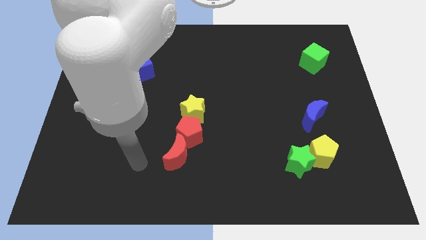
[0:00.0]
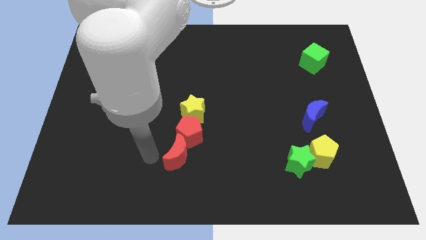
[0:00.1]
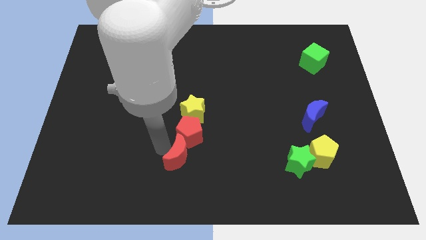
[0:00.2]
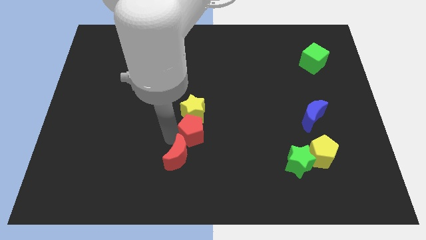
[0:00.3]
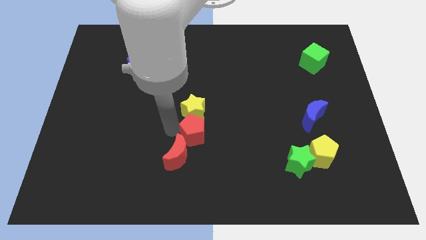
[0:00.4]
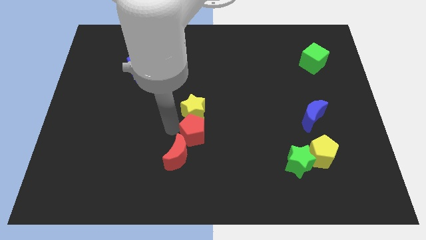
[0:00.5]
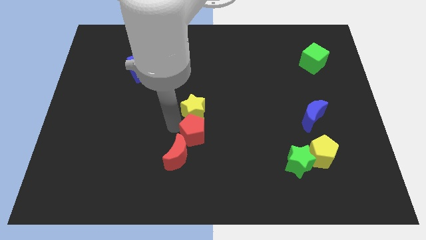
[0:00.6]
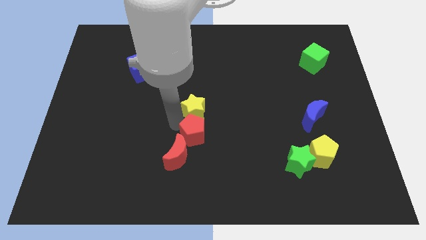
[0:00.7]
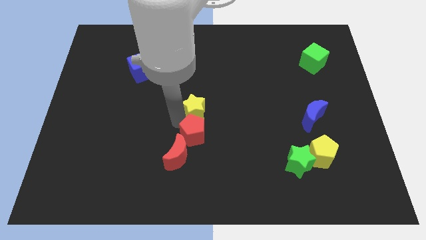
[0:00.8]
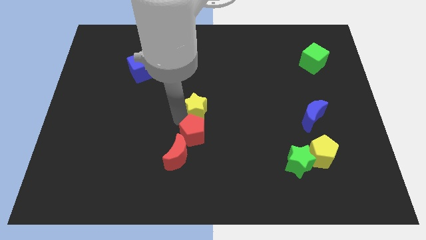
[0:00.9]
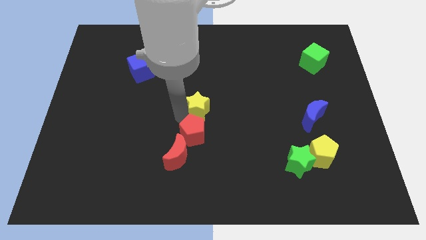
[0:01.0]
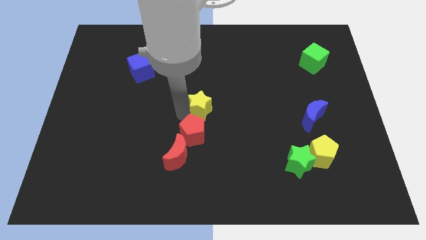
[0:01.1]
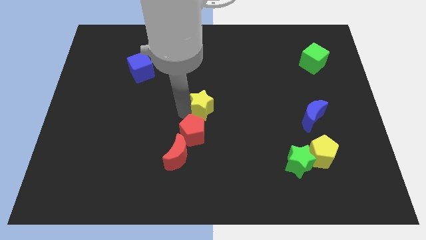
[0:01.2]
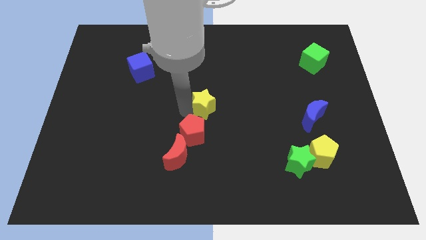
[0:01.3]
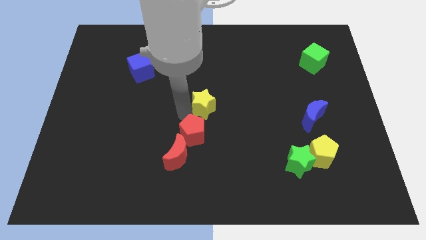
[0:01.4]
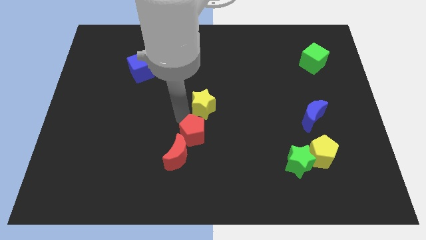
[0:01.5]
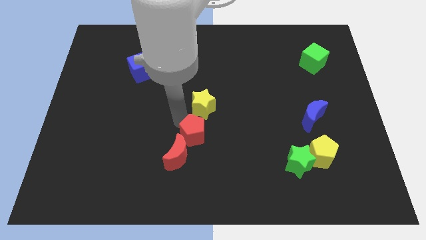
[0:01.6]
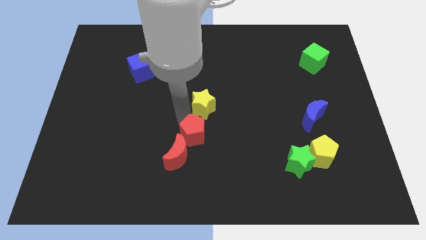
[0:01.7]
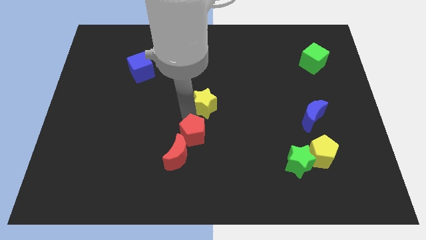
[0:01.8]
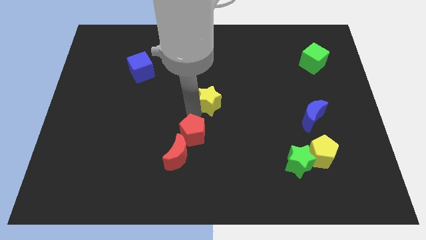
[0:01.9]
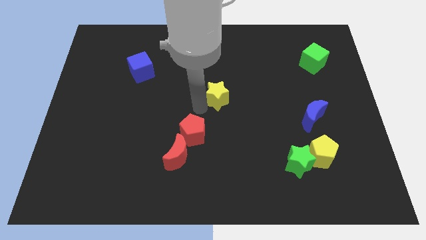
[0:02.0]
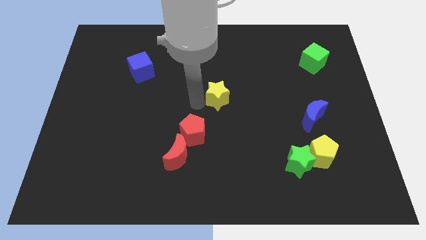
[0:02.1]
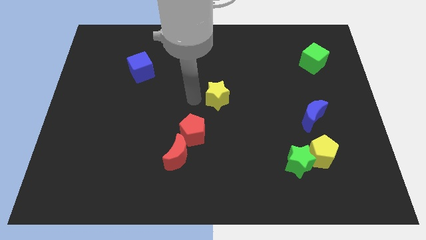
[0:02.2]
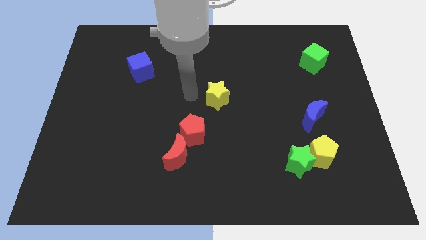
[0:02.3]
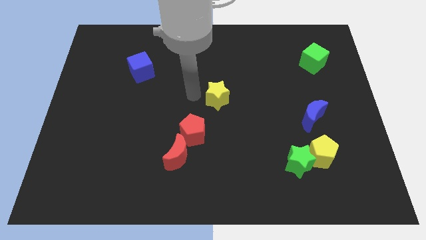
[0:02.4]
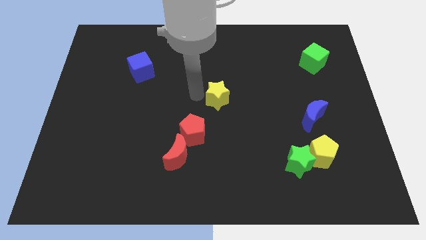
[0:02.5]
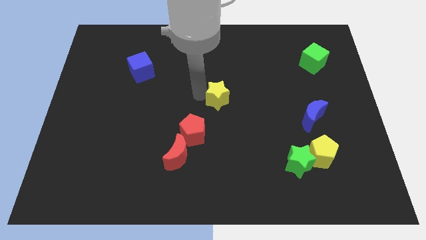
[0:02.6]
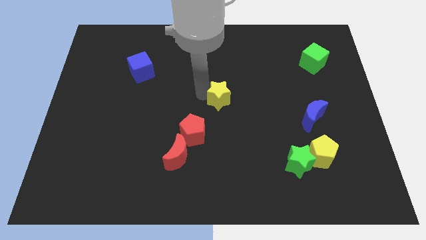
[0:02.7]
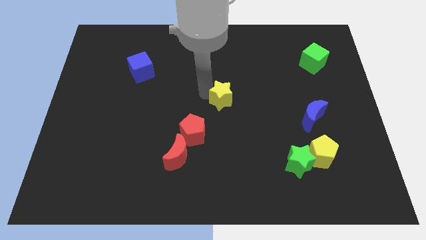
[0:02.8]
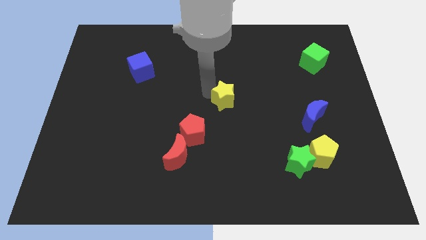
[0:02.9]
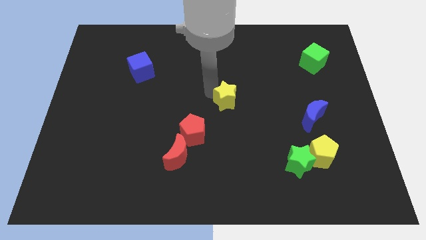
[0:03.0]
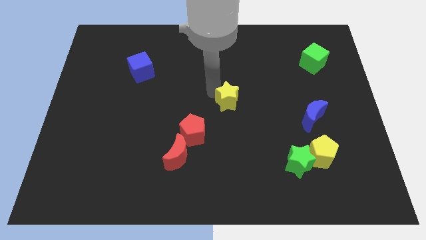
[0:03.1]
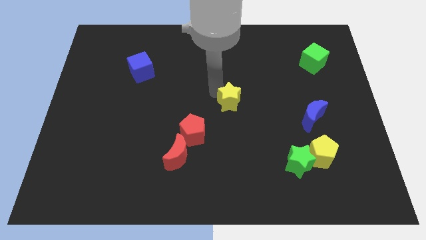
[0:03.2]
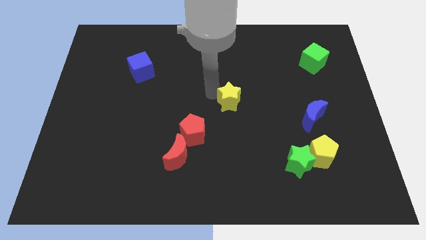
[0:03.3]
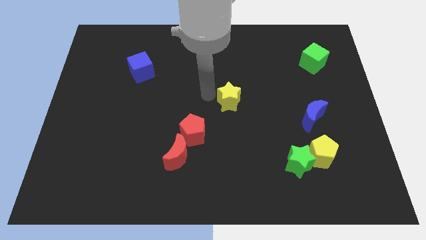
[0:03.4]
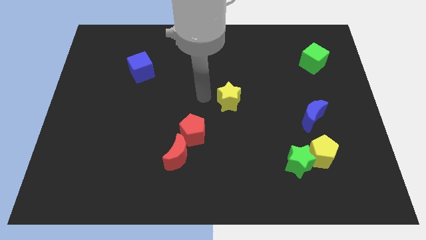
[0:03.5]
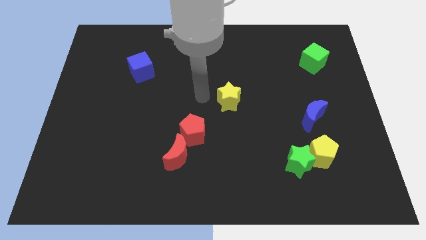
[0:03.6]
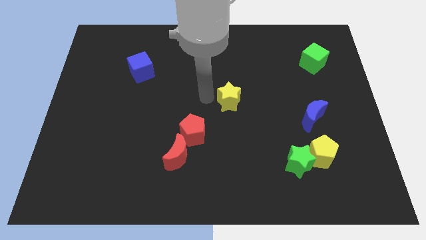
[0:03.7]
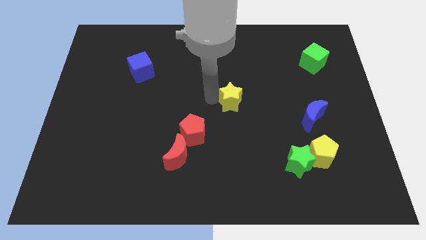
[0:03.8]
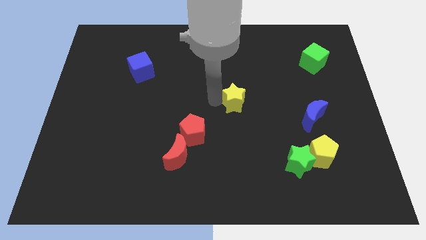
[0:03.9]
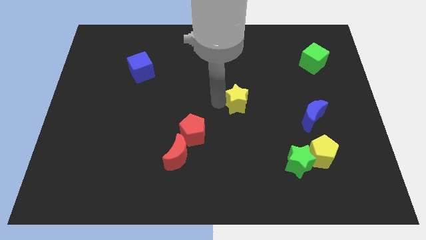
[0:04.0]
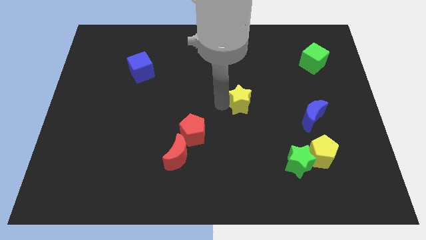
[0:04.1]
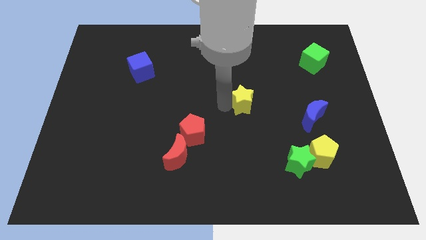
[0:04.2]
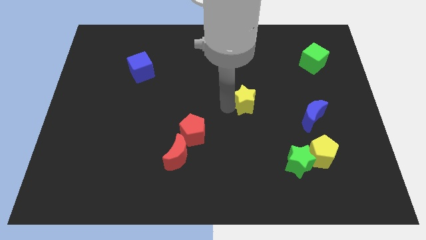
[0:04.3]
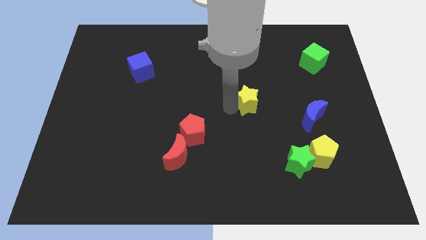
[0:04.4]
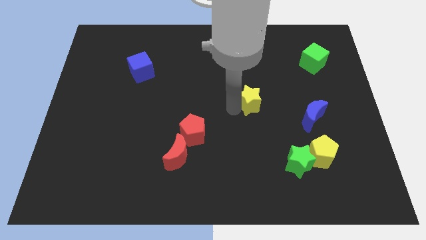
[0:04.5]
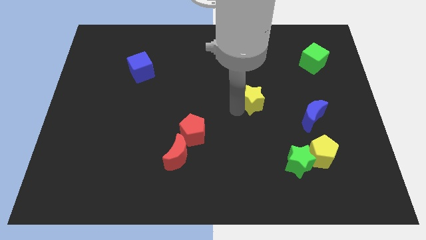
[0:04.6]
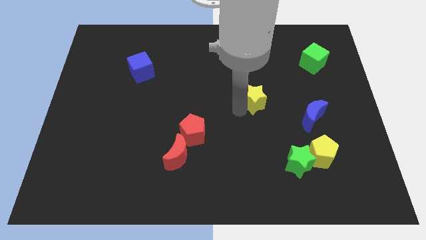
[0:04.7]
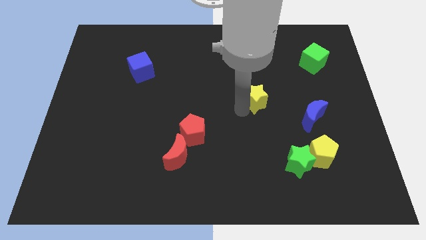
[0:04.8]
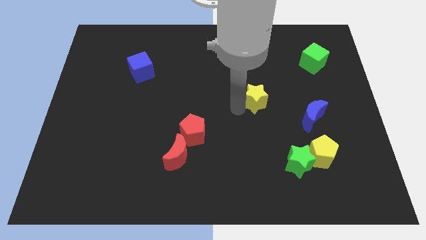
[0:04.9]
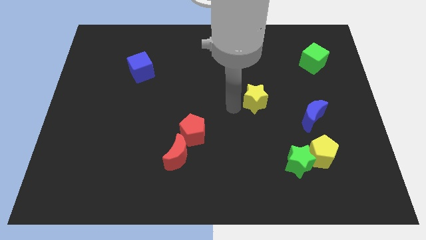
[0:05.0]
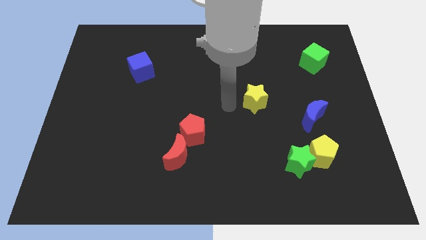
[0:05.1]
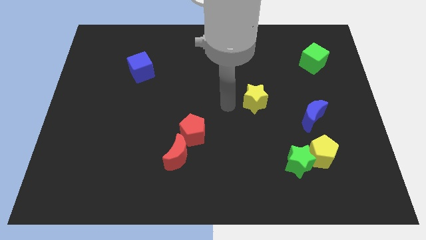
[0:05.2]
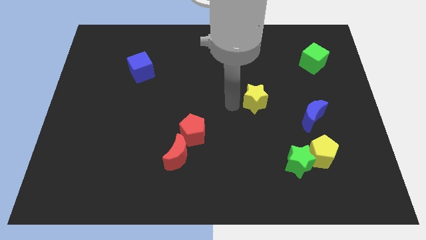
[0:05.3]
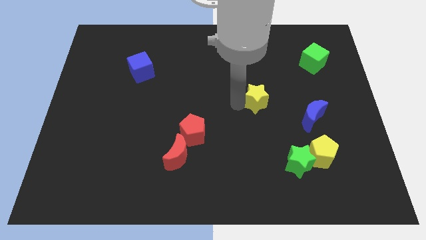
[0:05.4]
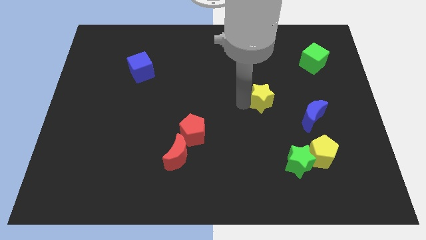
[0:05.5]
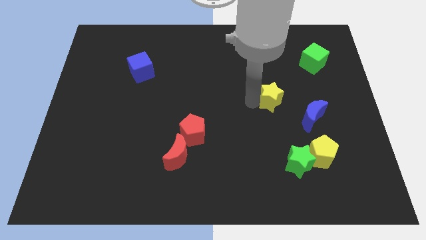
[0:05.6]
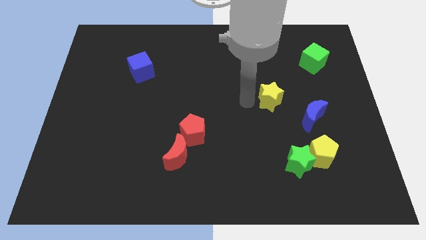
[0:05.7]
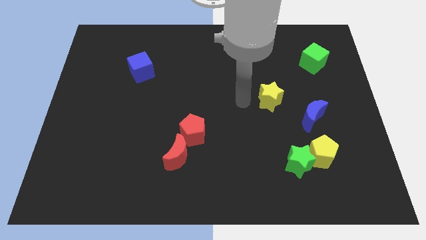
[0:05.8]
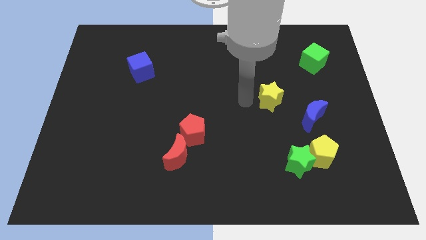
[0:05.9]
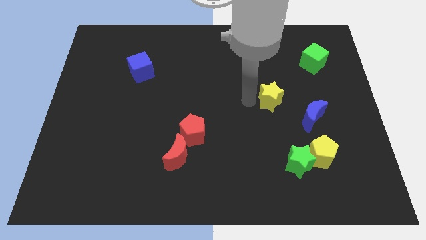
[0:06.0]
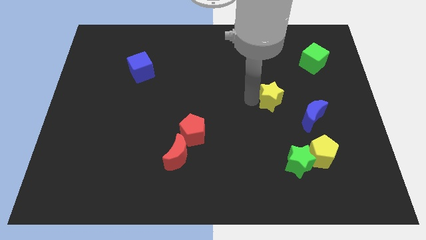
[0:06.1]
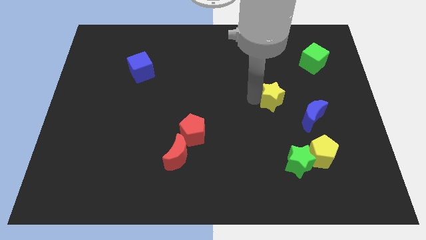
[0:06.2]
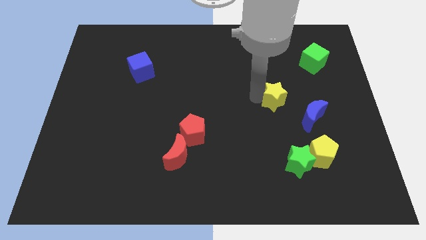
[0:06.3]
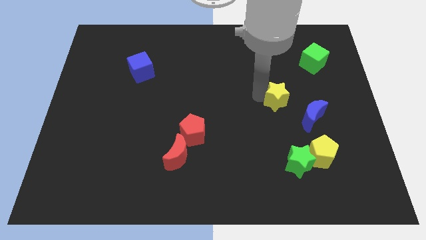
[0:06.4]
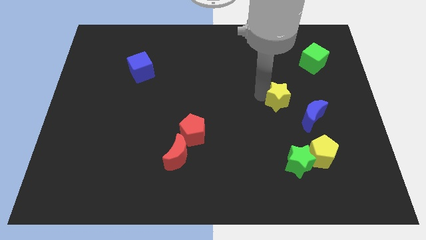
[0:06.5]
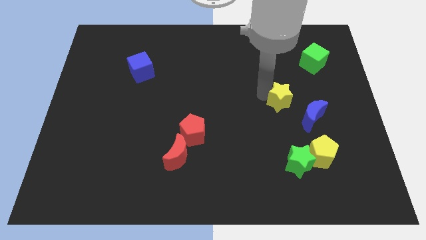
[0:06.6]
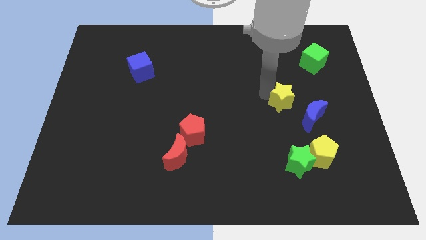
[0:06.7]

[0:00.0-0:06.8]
slide the yellow star to the right

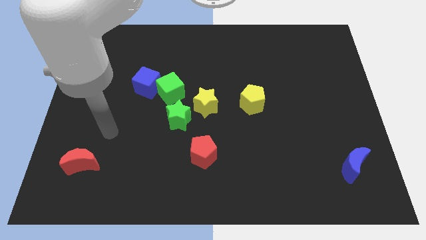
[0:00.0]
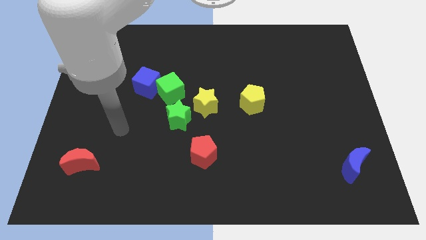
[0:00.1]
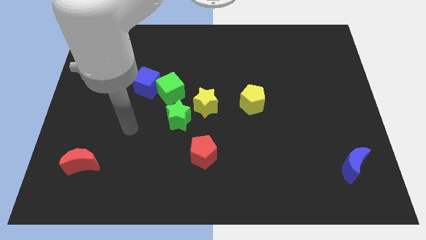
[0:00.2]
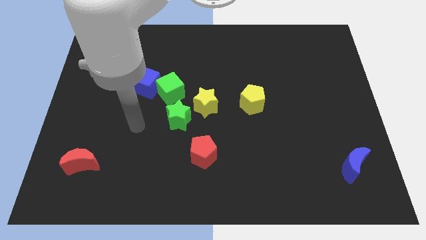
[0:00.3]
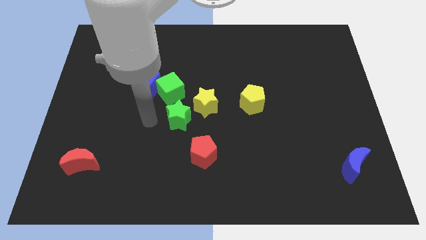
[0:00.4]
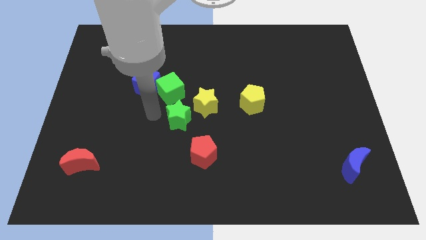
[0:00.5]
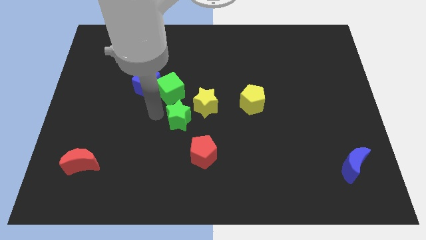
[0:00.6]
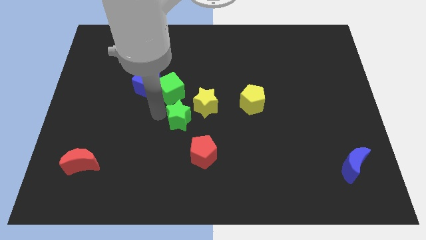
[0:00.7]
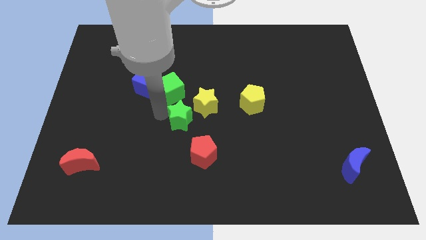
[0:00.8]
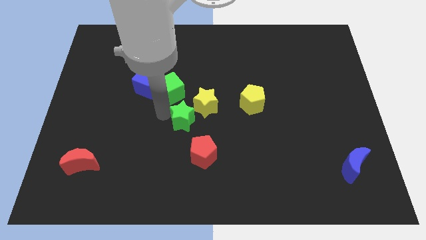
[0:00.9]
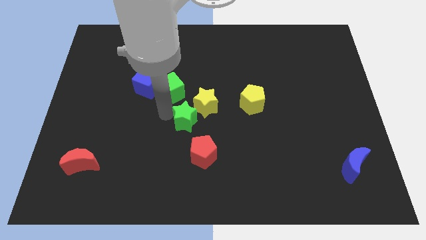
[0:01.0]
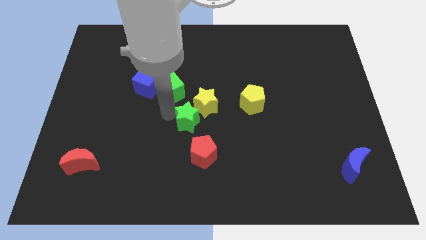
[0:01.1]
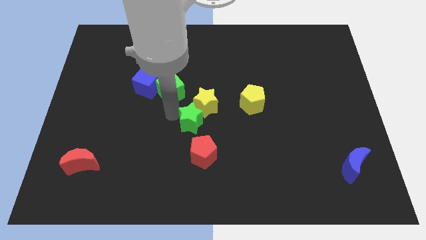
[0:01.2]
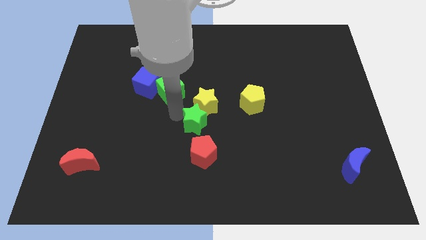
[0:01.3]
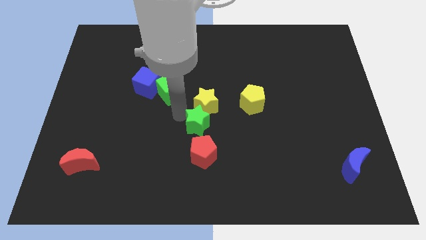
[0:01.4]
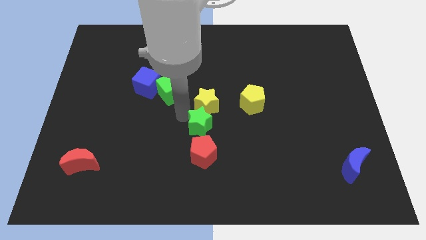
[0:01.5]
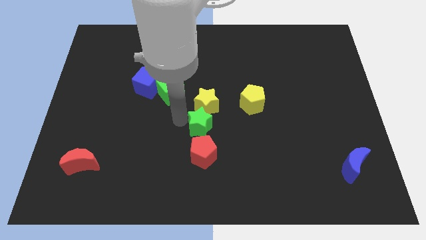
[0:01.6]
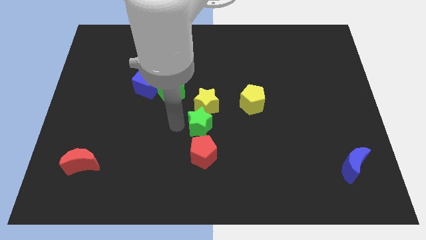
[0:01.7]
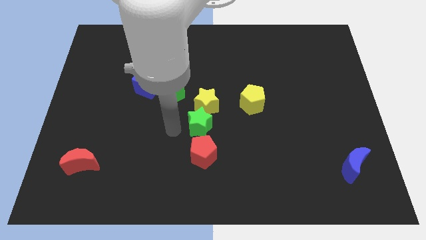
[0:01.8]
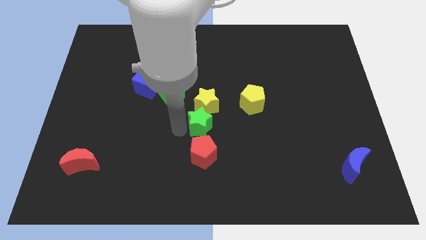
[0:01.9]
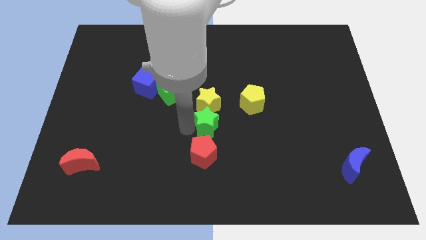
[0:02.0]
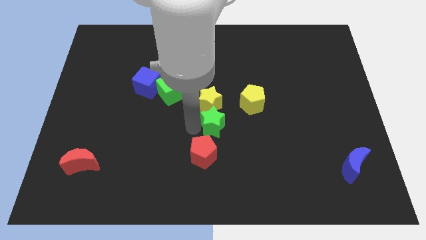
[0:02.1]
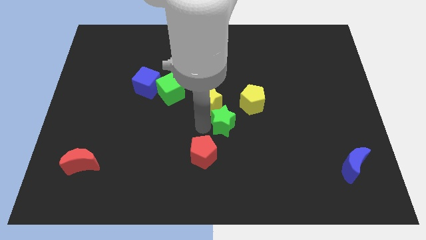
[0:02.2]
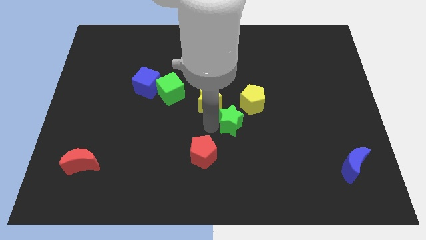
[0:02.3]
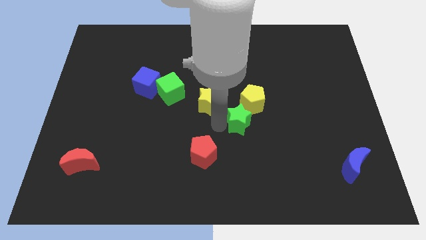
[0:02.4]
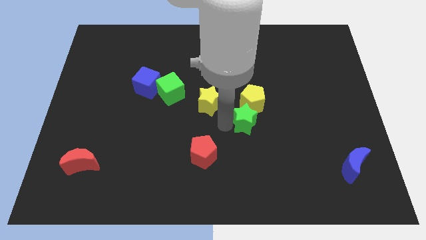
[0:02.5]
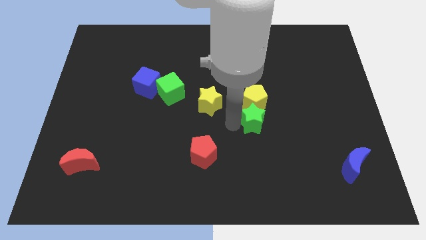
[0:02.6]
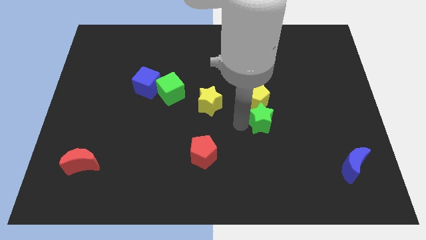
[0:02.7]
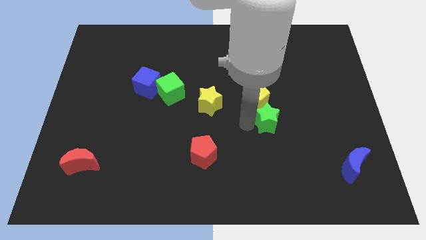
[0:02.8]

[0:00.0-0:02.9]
move the green star right
